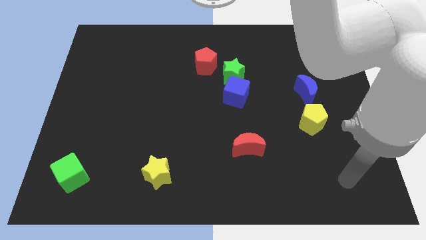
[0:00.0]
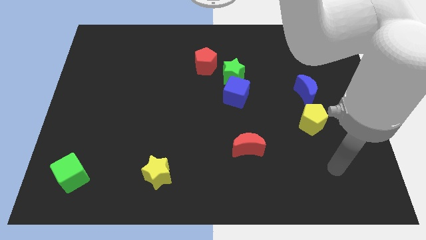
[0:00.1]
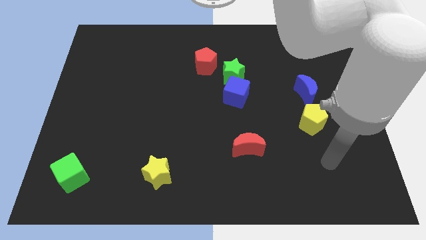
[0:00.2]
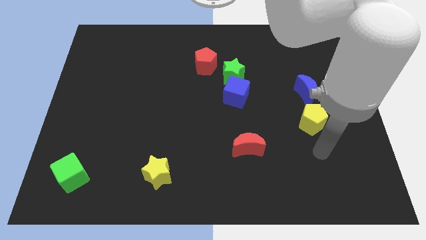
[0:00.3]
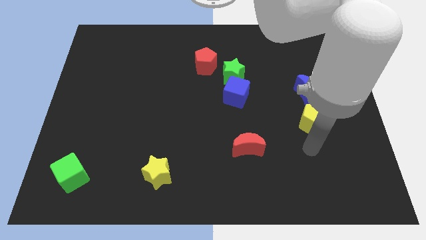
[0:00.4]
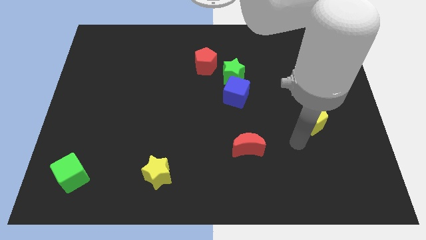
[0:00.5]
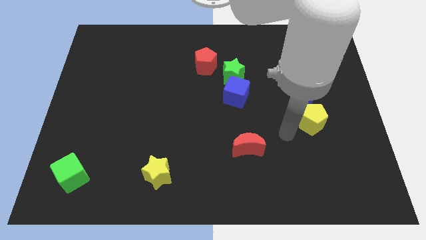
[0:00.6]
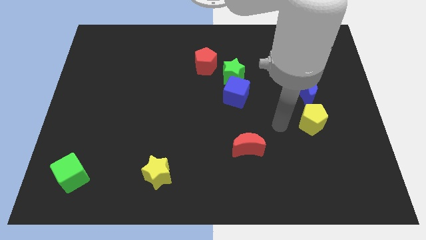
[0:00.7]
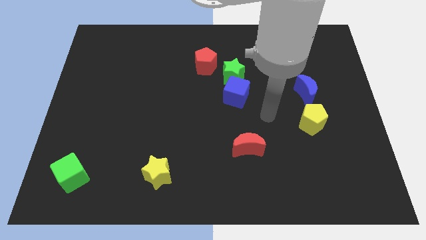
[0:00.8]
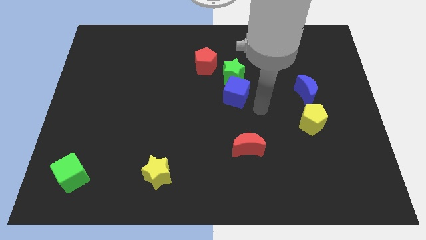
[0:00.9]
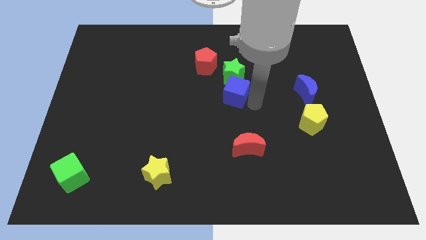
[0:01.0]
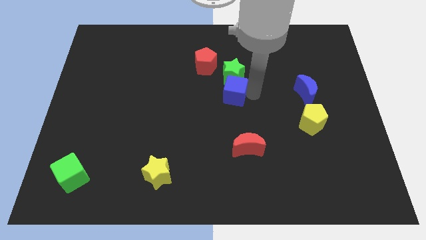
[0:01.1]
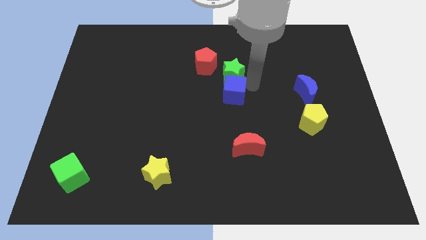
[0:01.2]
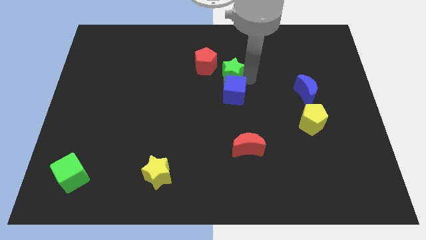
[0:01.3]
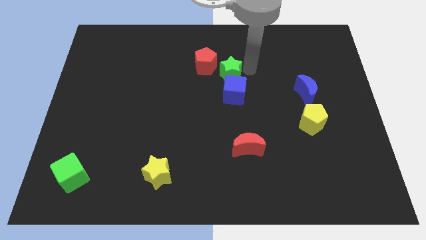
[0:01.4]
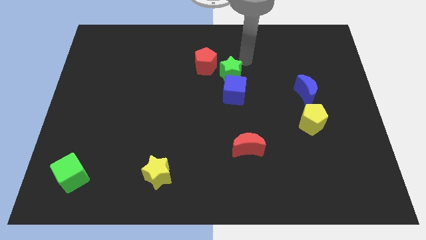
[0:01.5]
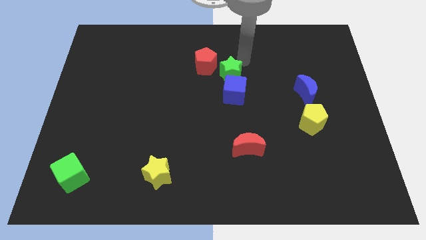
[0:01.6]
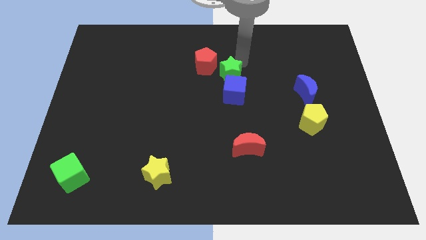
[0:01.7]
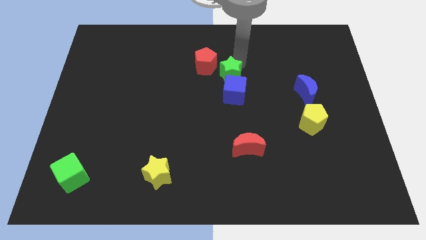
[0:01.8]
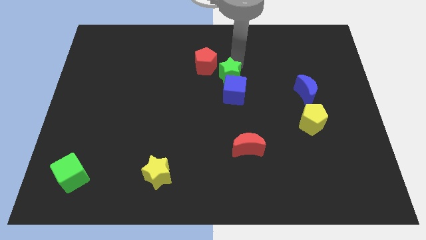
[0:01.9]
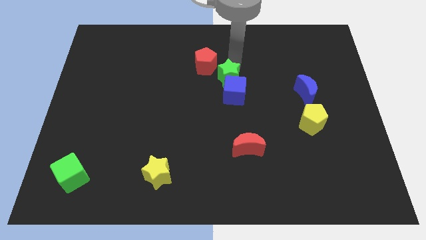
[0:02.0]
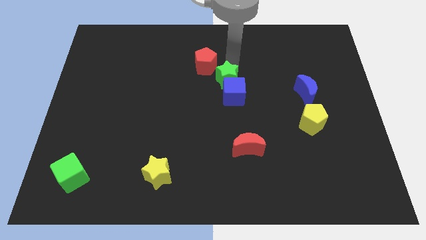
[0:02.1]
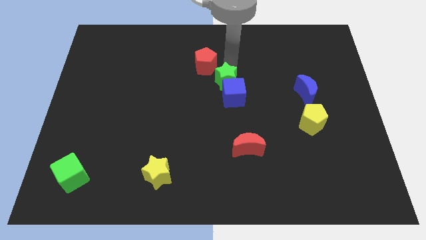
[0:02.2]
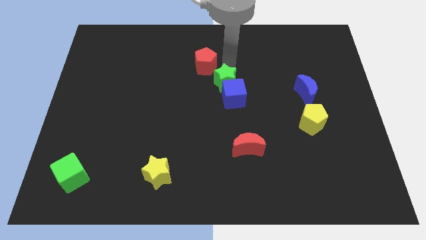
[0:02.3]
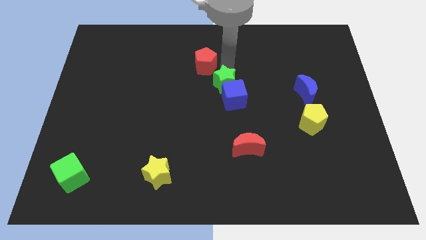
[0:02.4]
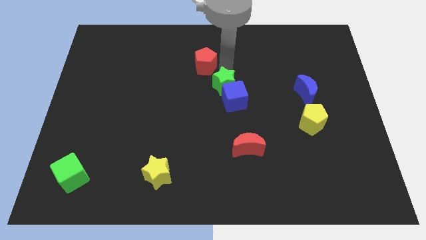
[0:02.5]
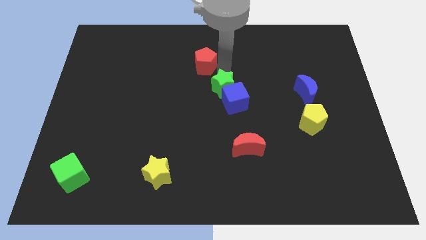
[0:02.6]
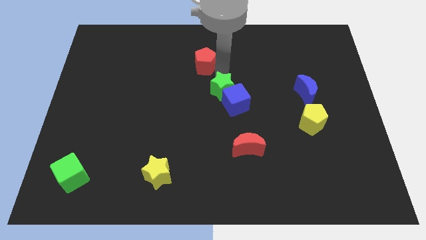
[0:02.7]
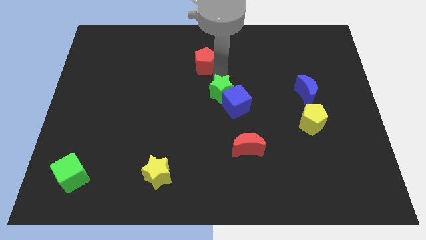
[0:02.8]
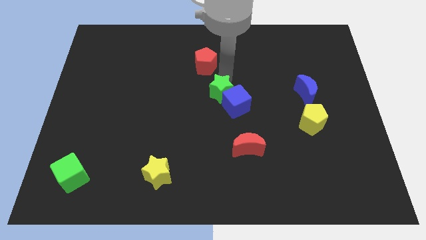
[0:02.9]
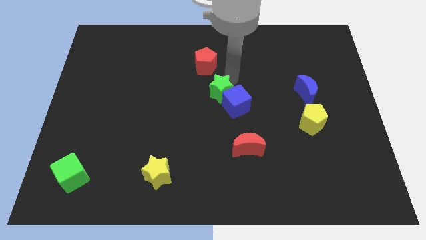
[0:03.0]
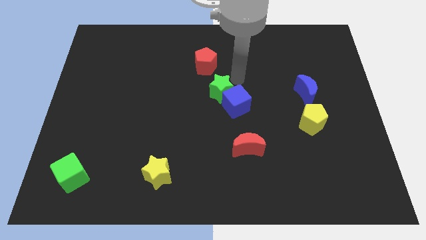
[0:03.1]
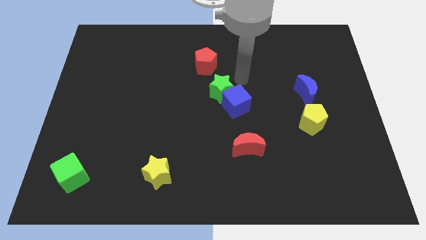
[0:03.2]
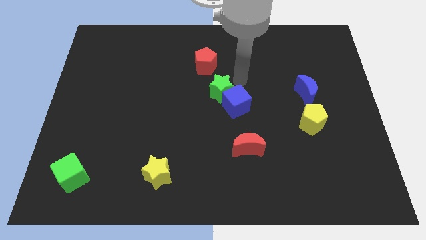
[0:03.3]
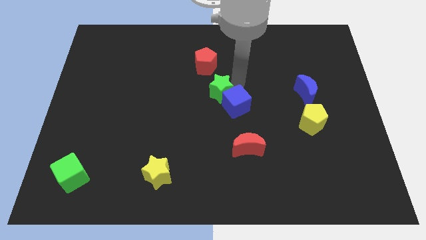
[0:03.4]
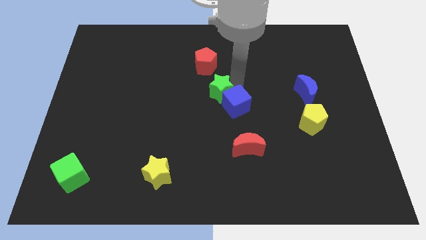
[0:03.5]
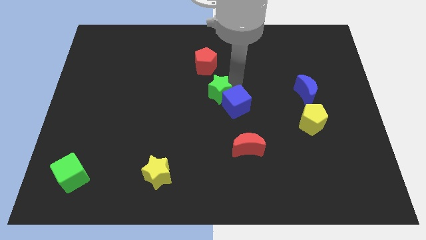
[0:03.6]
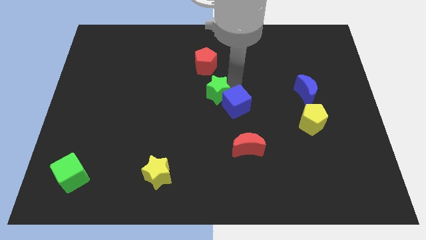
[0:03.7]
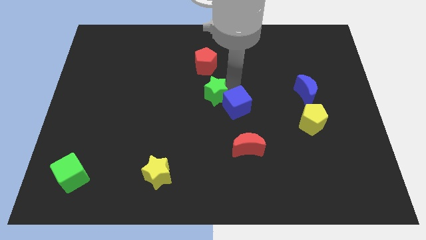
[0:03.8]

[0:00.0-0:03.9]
slide the green star downwards and to the left diagonally a bit

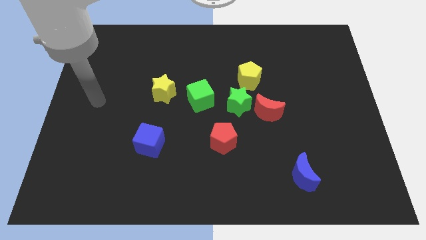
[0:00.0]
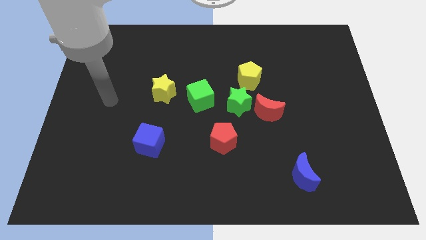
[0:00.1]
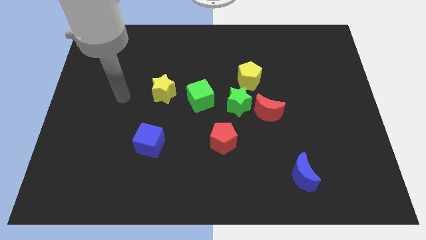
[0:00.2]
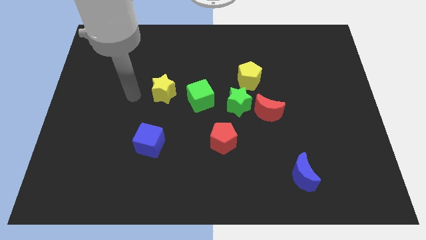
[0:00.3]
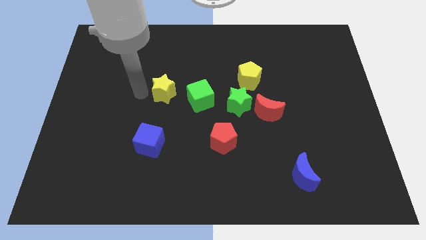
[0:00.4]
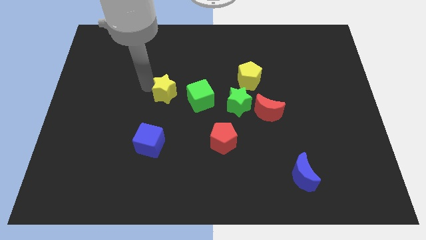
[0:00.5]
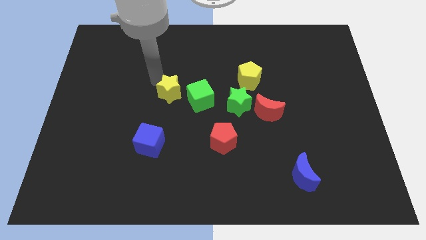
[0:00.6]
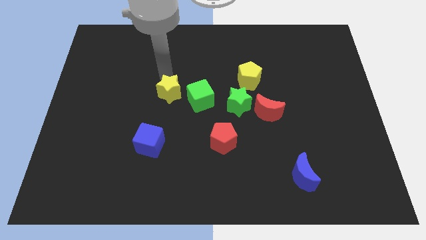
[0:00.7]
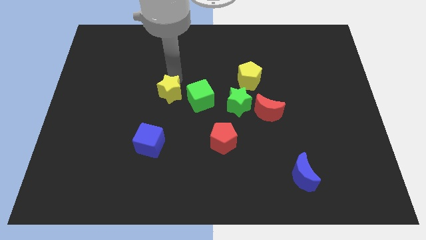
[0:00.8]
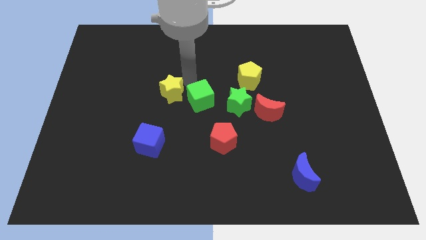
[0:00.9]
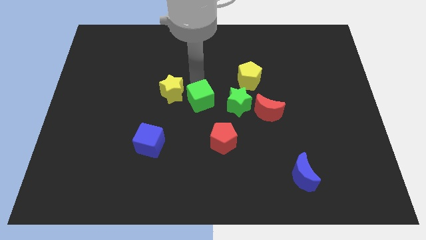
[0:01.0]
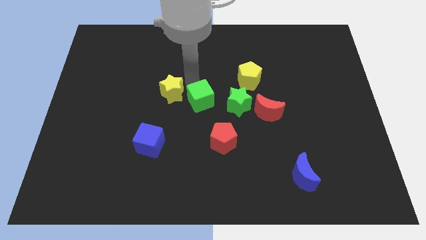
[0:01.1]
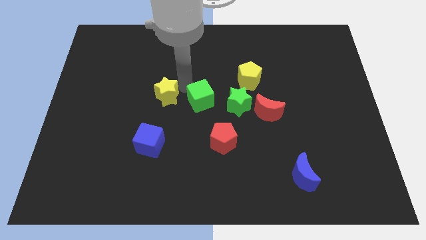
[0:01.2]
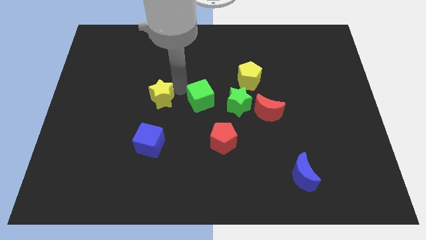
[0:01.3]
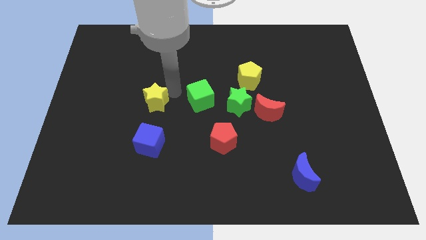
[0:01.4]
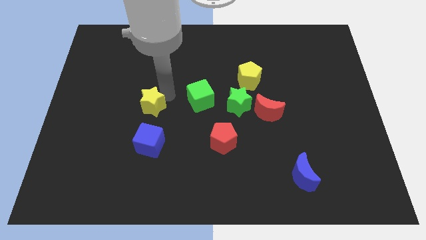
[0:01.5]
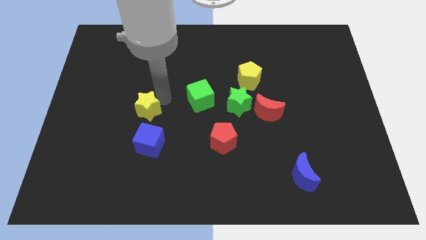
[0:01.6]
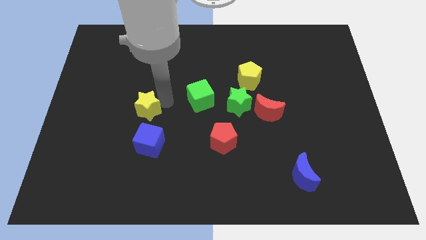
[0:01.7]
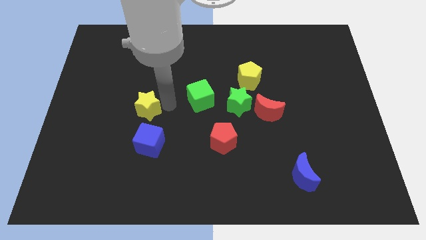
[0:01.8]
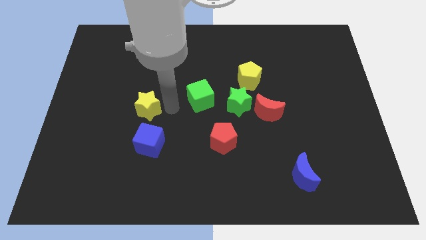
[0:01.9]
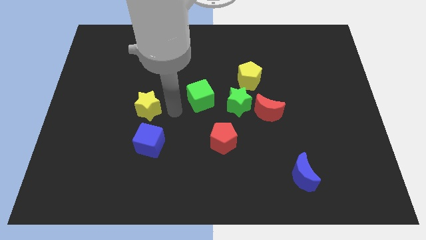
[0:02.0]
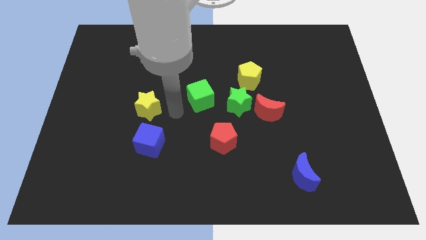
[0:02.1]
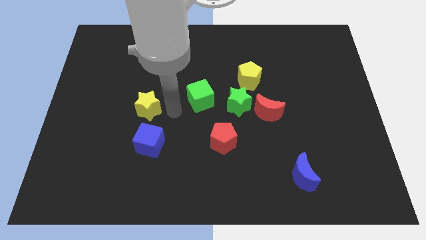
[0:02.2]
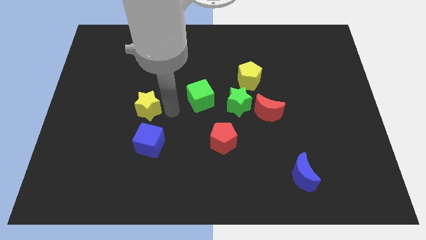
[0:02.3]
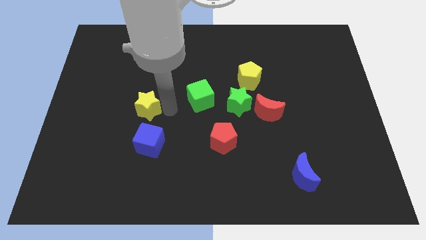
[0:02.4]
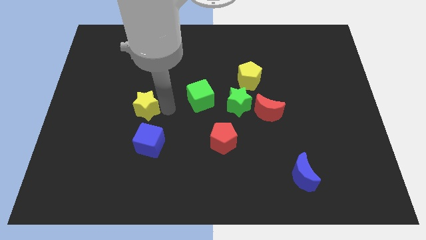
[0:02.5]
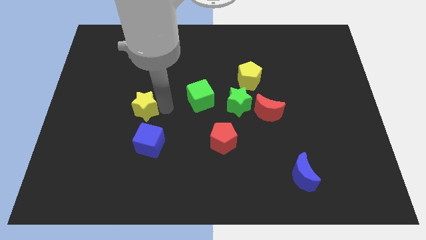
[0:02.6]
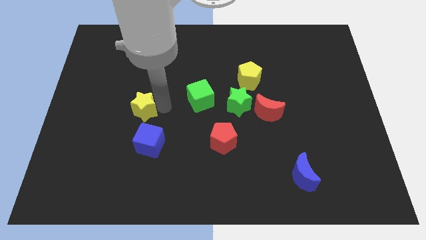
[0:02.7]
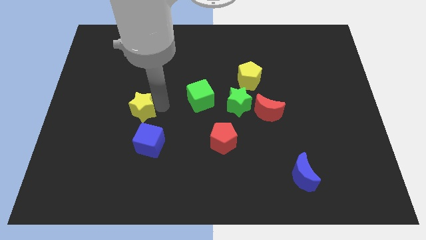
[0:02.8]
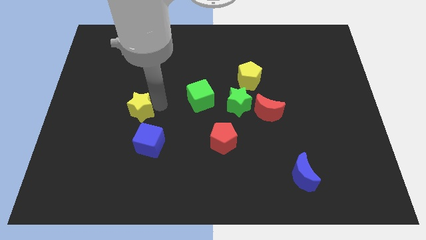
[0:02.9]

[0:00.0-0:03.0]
slightly push the yellow star down and then left

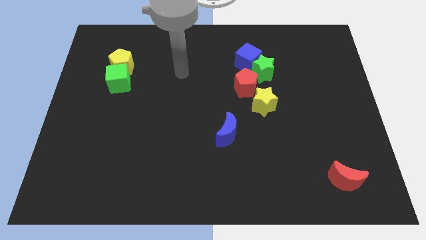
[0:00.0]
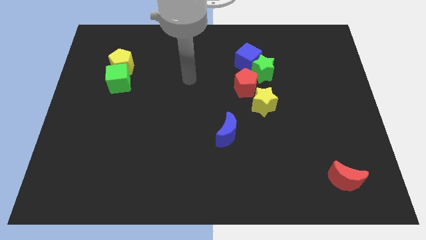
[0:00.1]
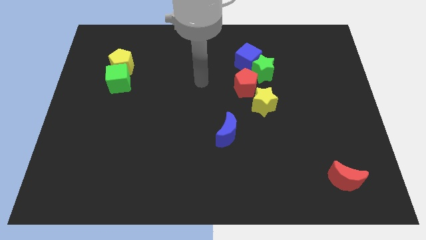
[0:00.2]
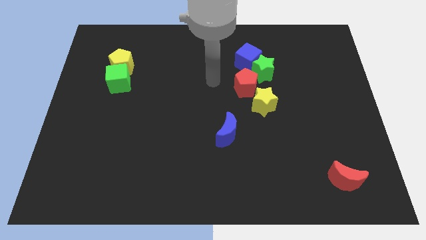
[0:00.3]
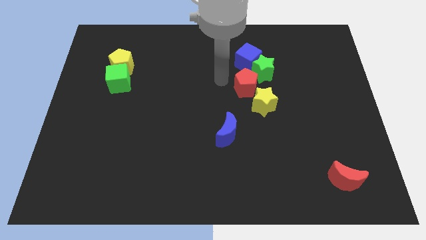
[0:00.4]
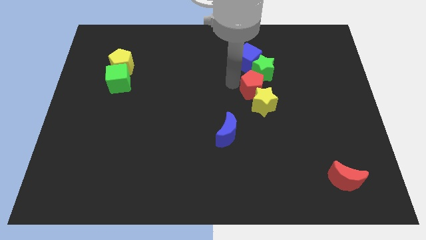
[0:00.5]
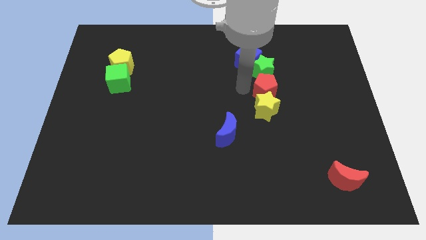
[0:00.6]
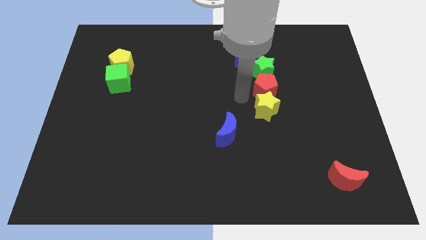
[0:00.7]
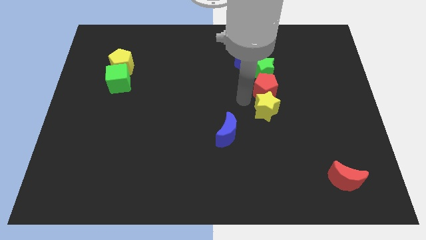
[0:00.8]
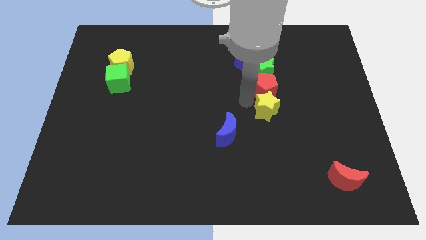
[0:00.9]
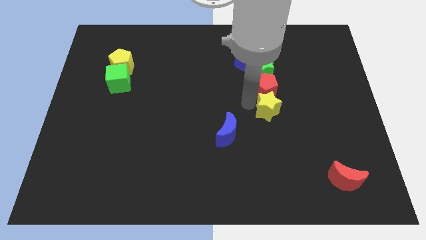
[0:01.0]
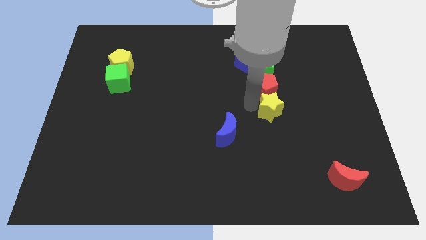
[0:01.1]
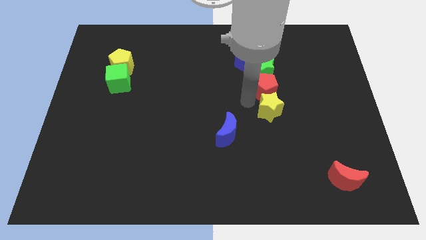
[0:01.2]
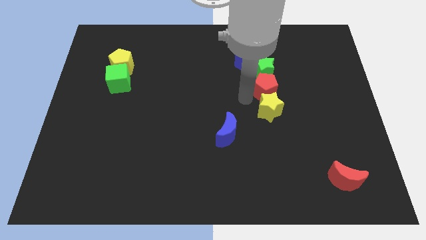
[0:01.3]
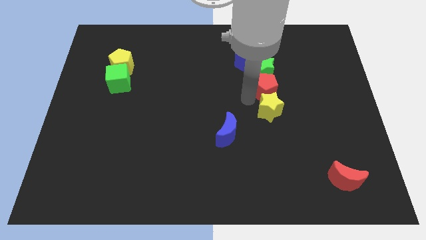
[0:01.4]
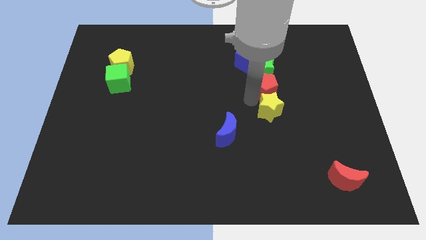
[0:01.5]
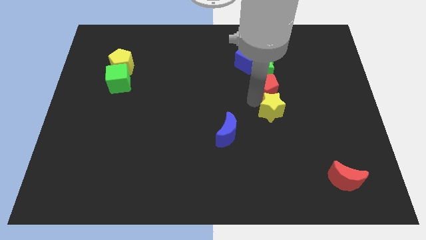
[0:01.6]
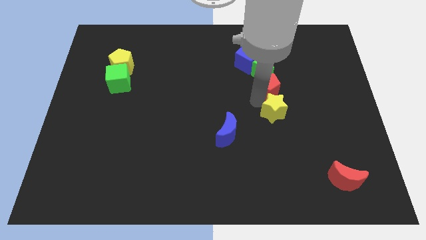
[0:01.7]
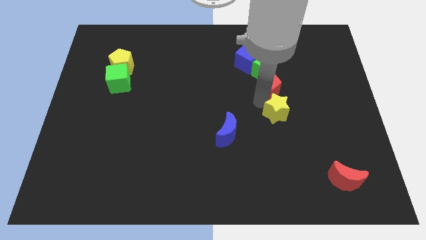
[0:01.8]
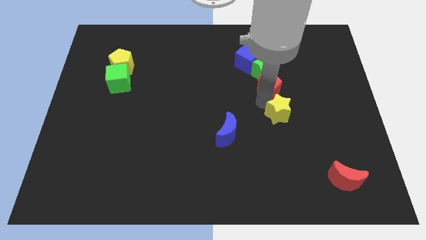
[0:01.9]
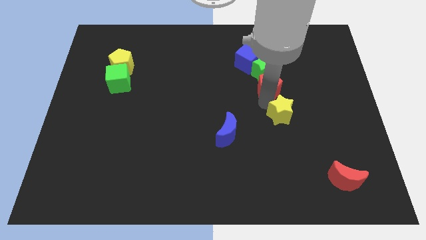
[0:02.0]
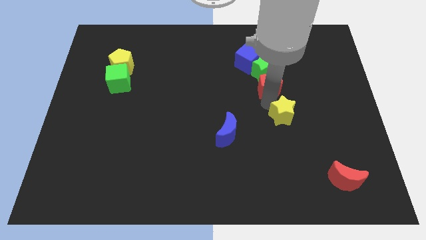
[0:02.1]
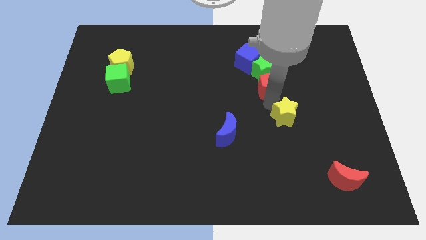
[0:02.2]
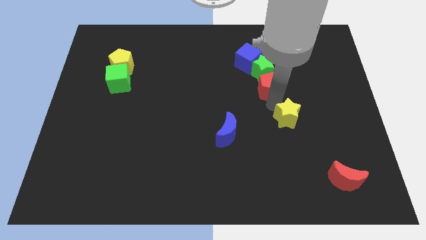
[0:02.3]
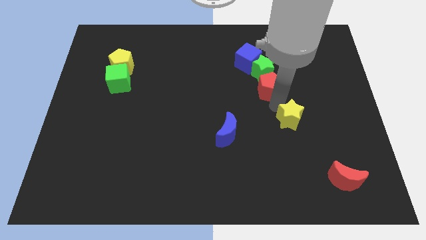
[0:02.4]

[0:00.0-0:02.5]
slightly slide the yellow star downwards and then to the right
